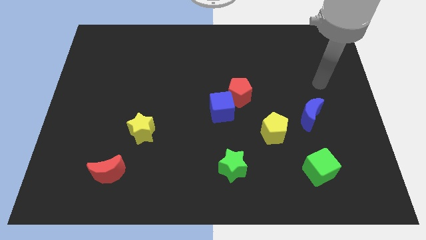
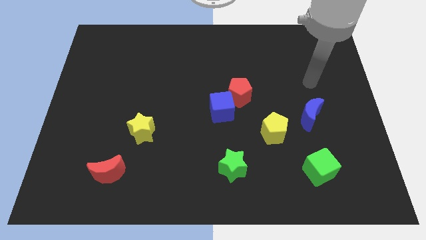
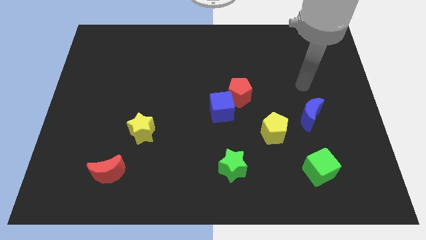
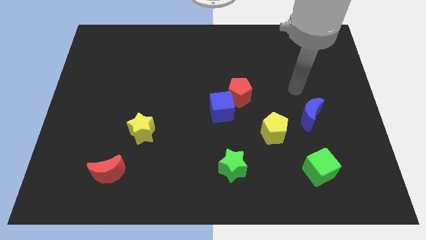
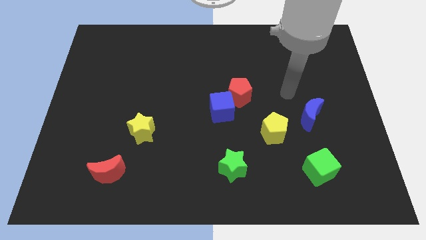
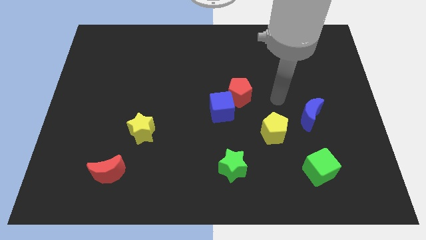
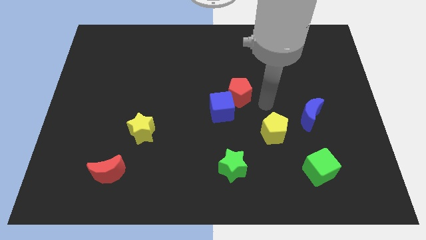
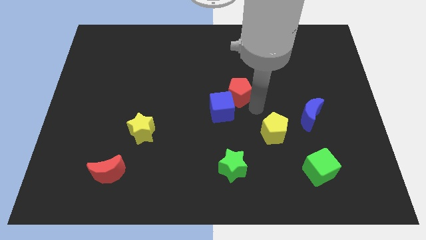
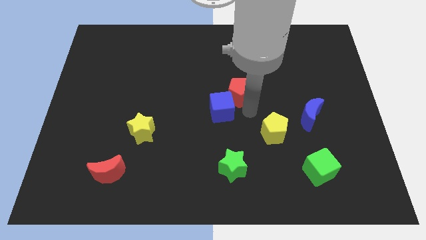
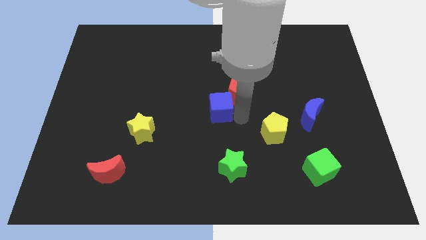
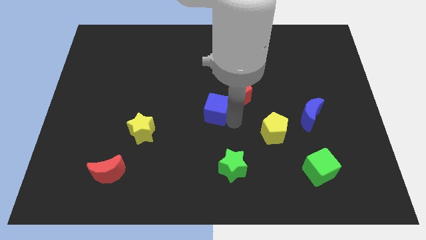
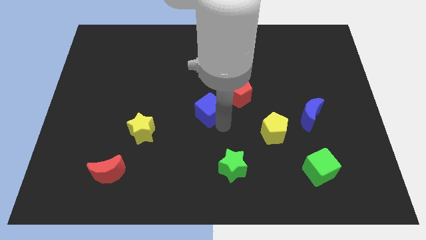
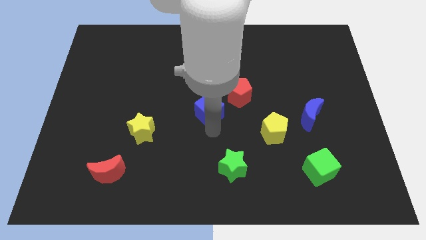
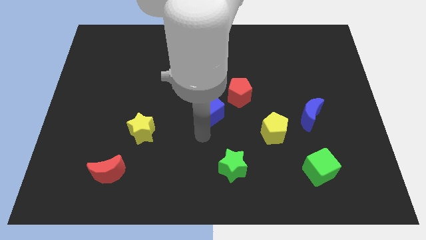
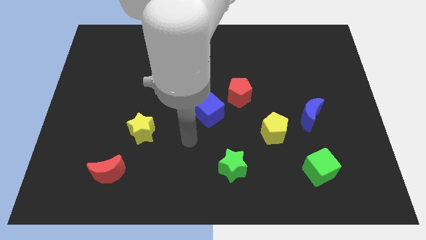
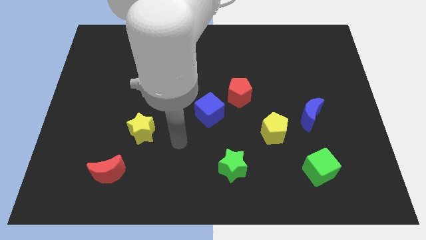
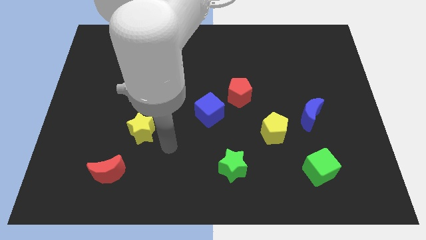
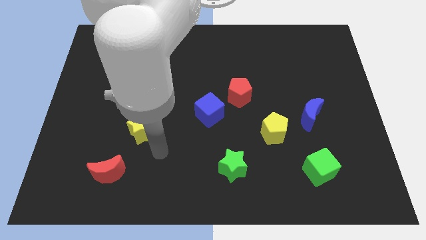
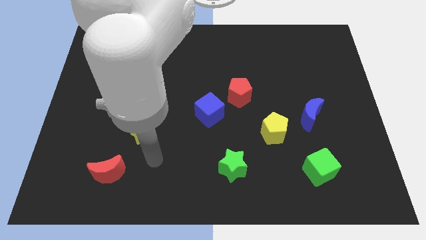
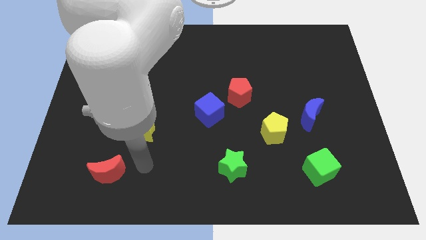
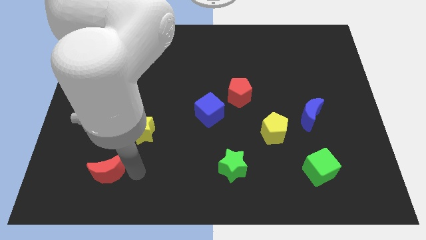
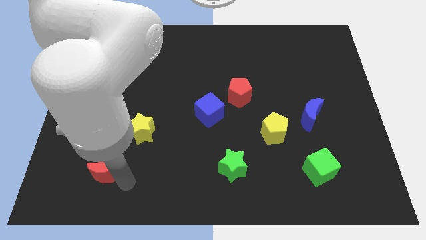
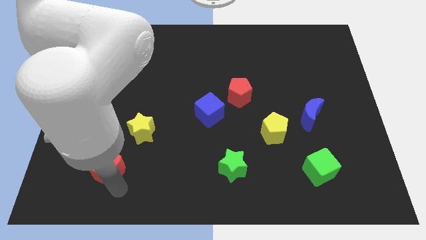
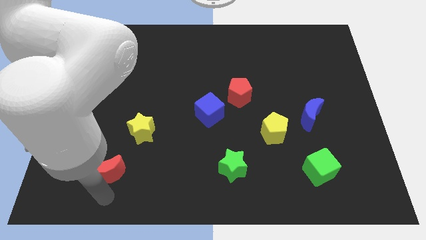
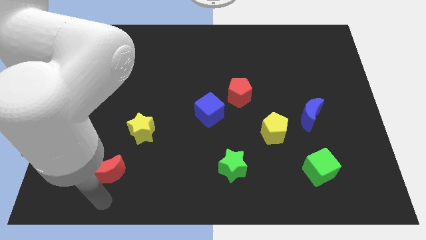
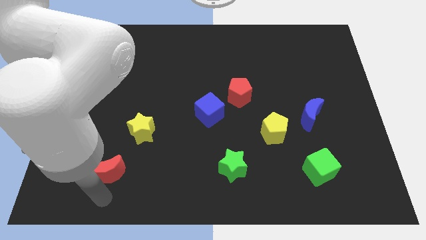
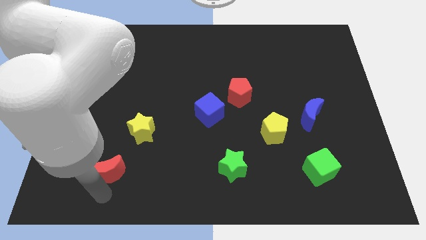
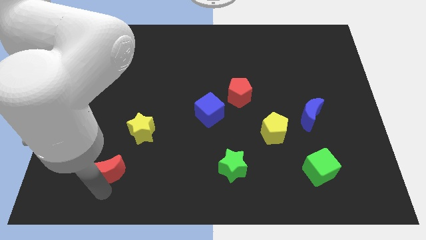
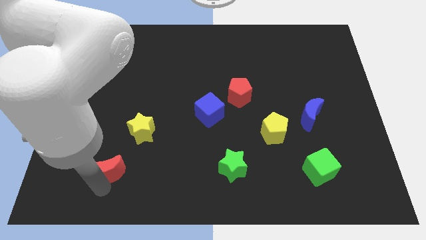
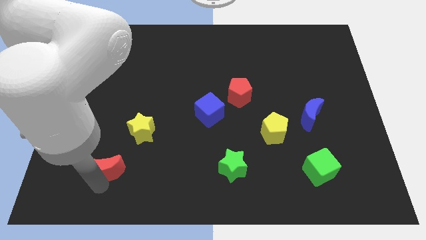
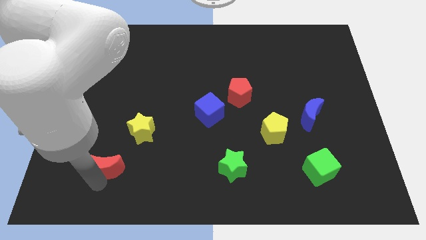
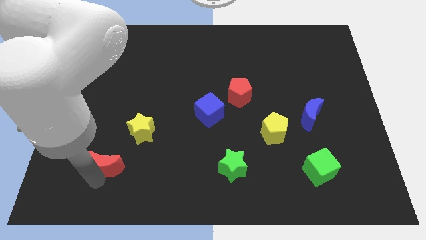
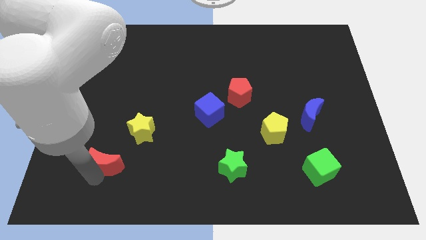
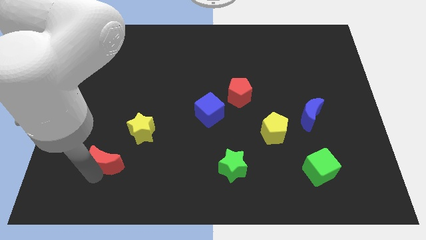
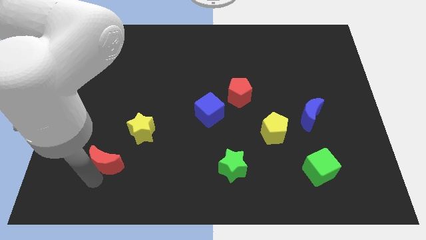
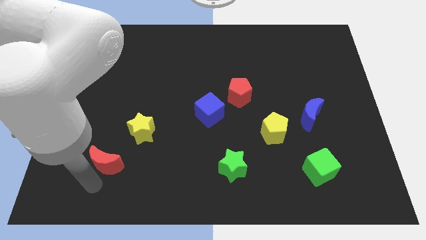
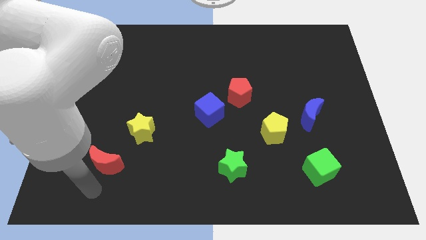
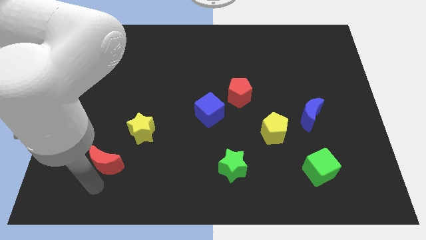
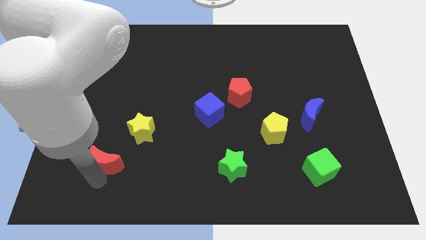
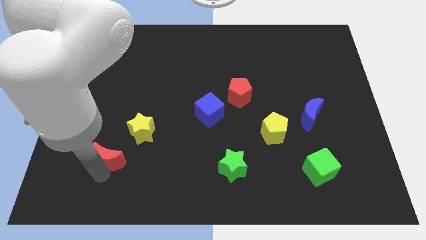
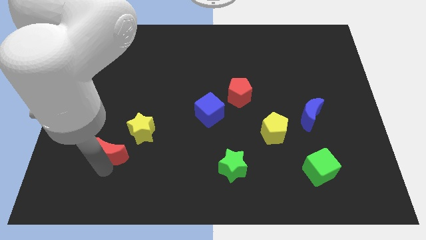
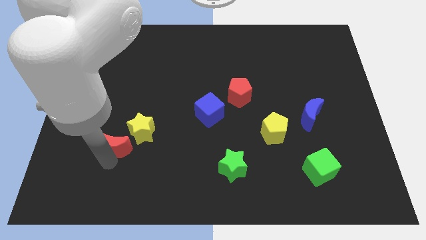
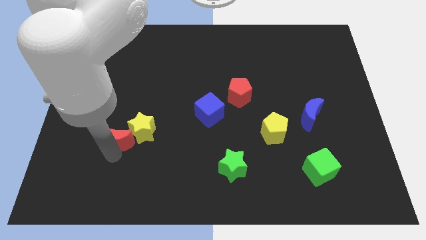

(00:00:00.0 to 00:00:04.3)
move the red moon a bit up

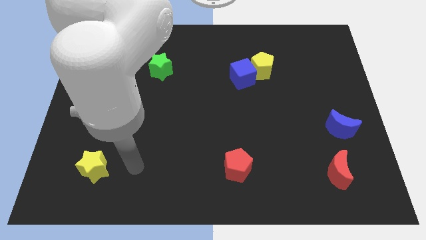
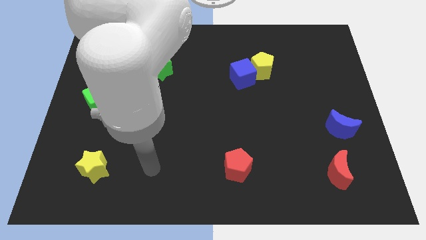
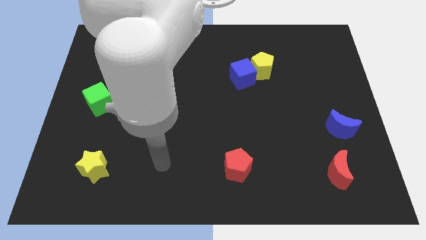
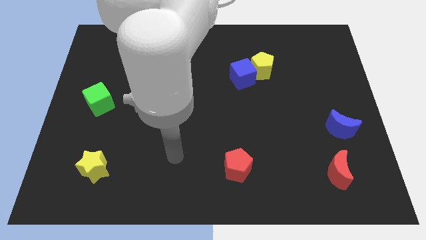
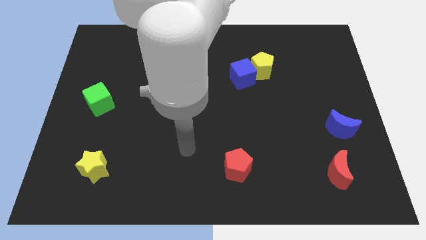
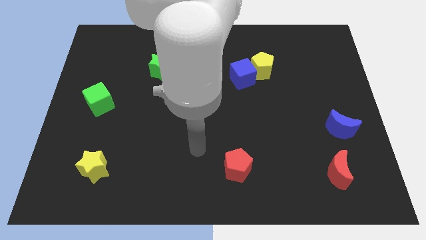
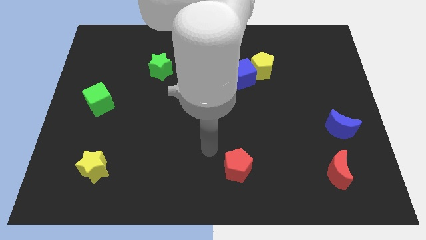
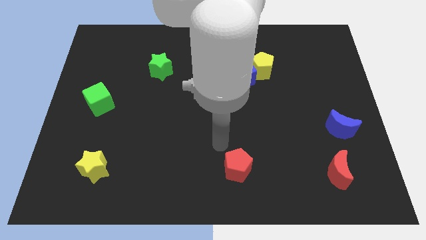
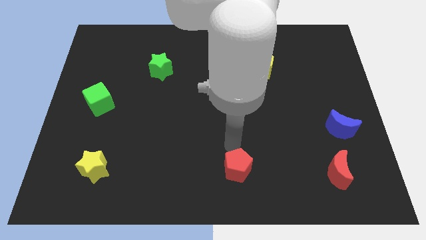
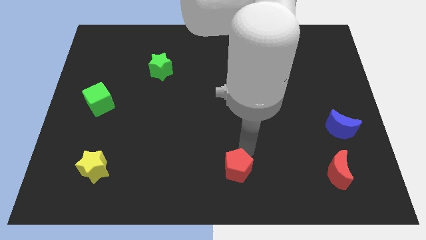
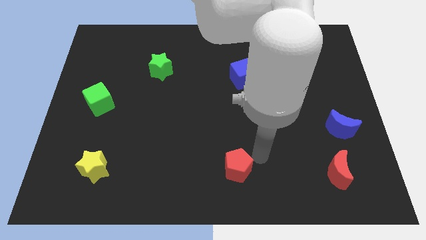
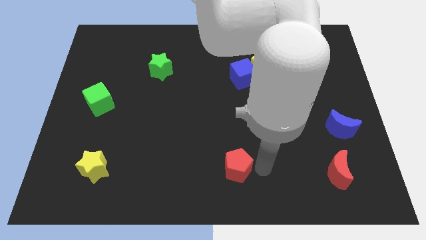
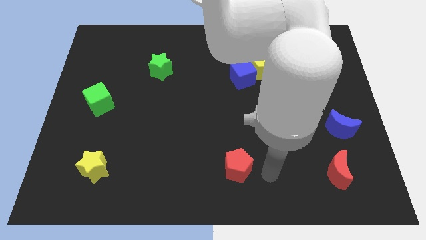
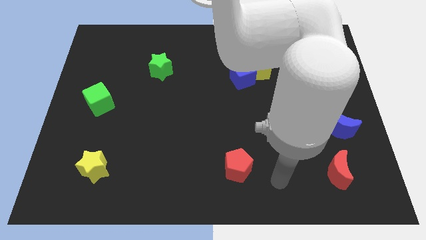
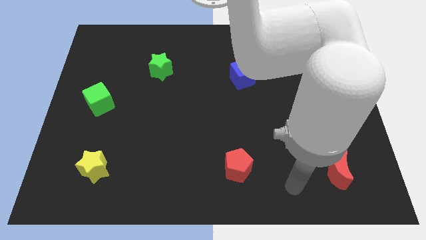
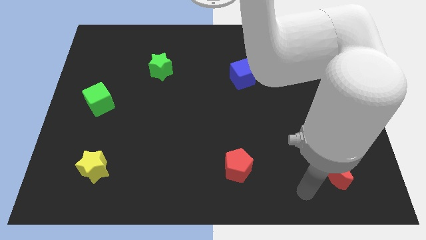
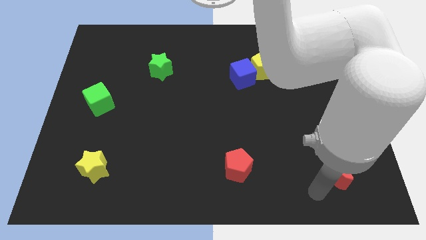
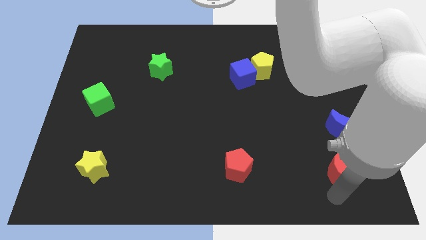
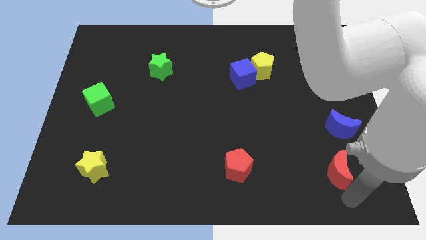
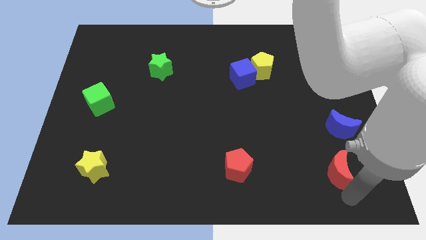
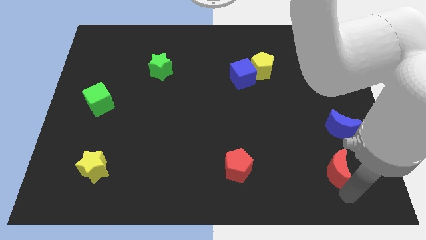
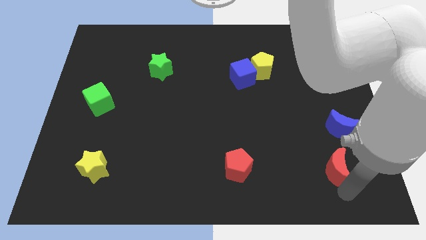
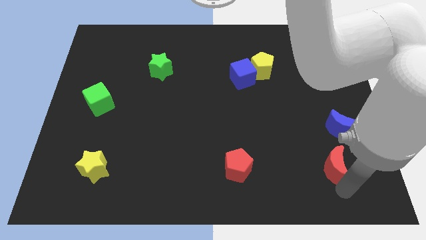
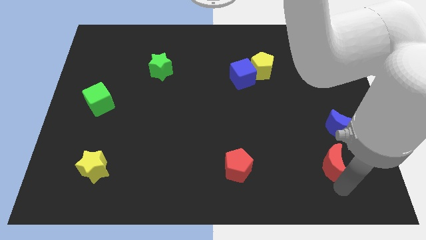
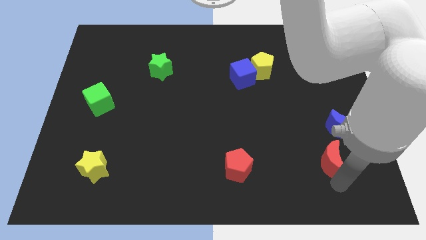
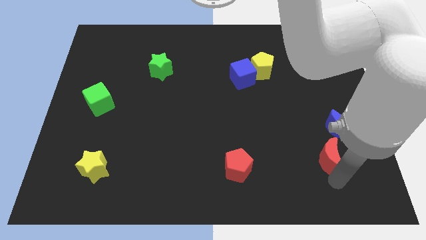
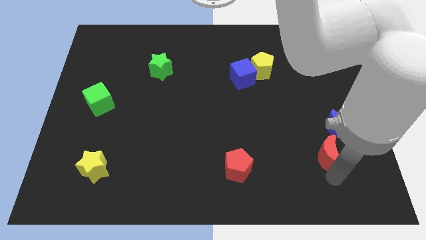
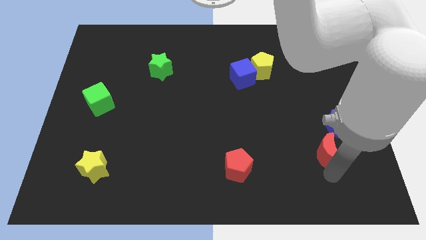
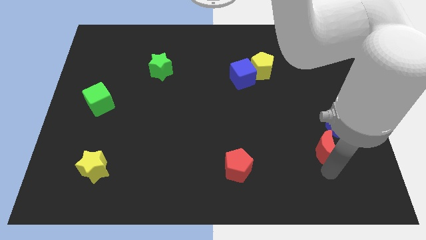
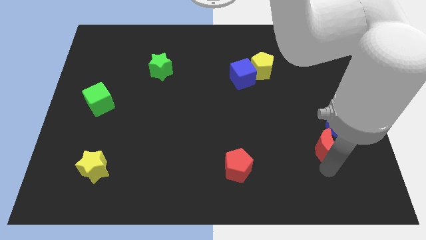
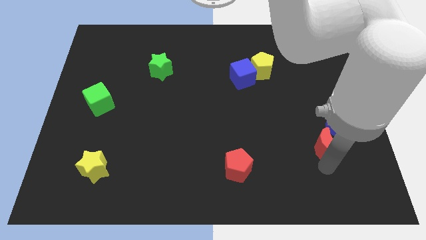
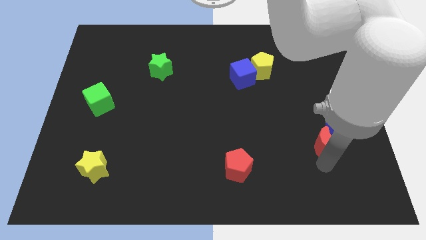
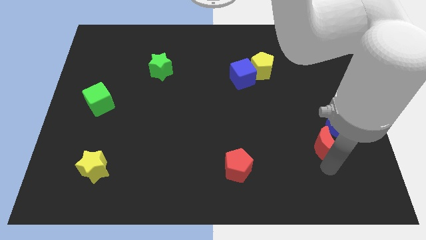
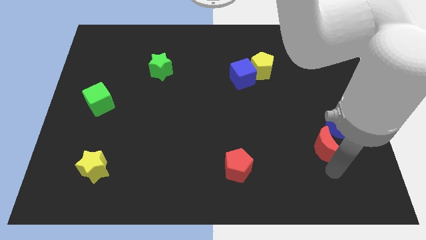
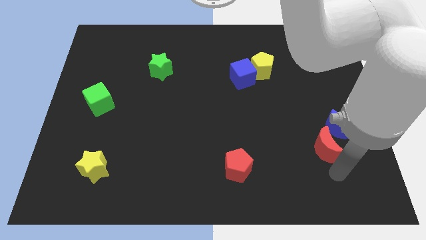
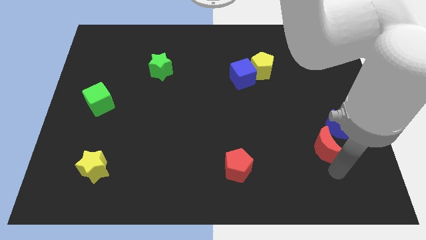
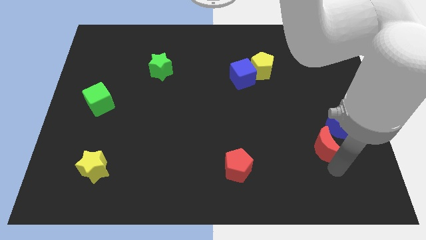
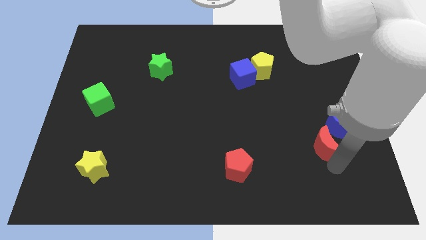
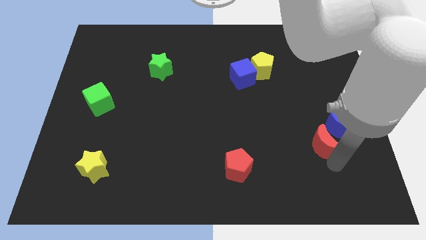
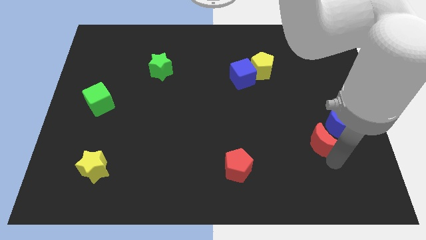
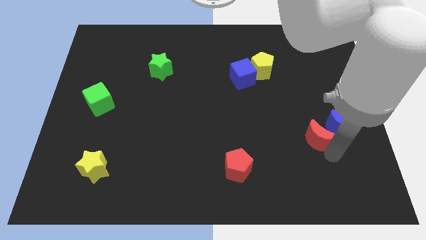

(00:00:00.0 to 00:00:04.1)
slightly move the red moon upwards

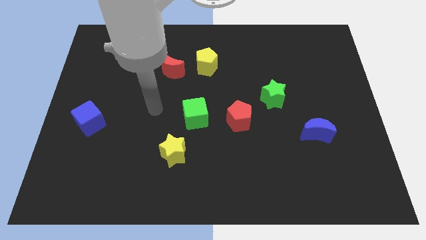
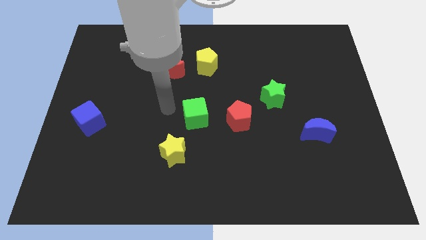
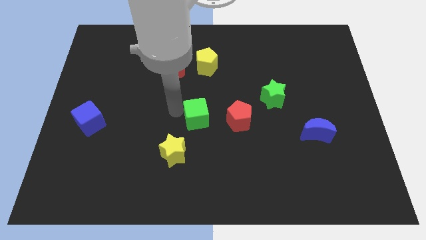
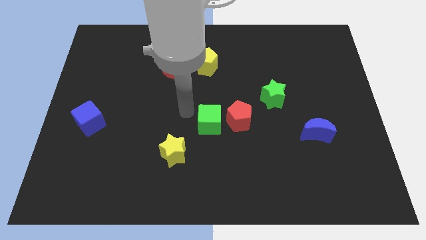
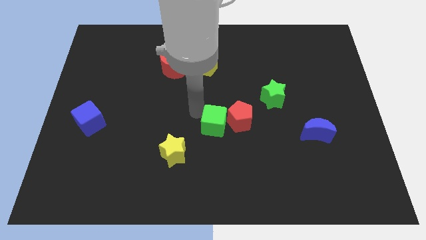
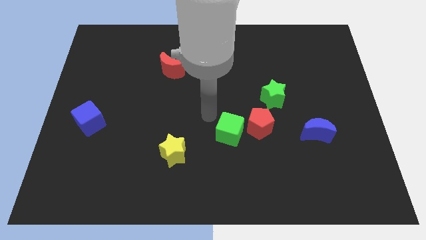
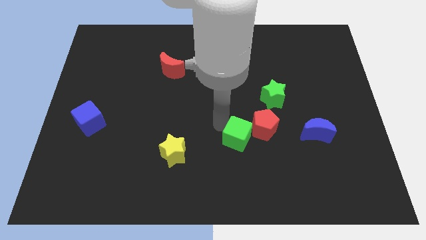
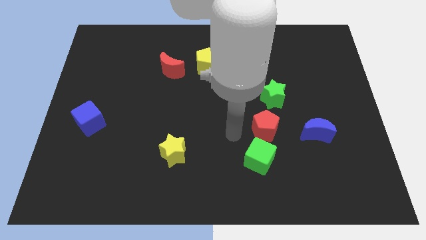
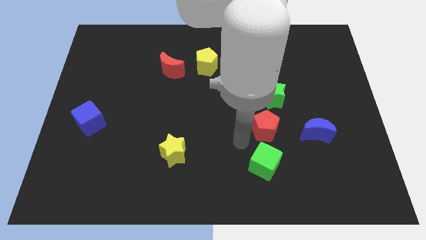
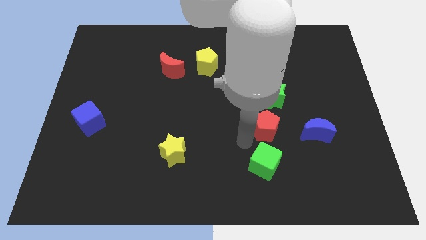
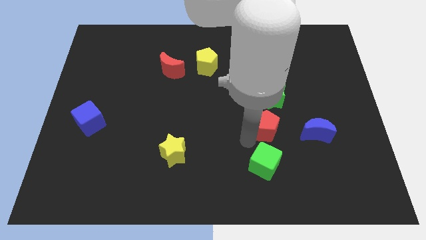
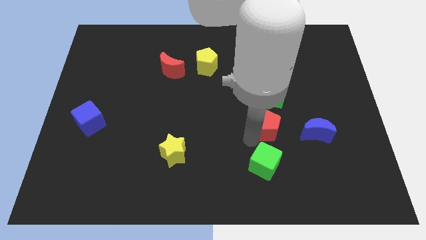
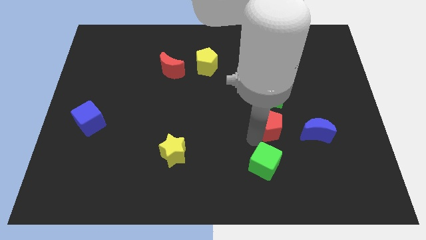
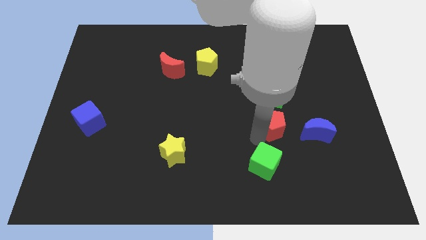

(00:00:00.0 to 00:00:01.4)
push the red pentagon slightly right
